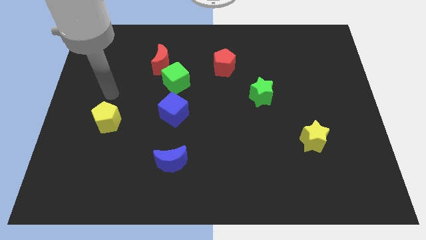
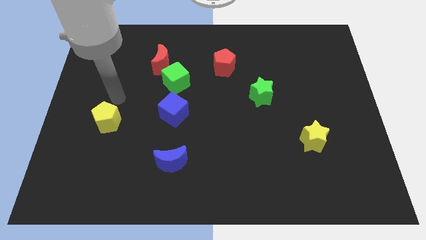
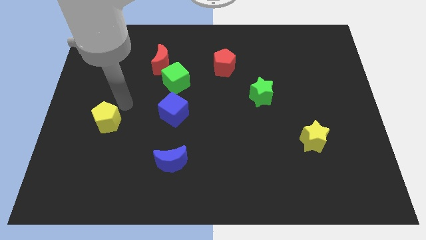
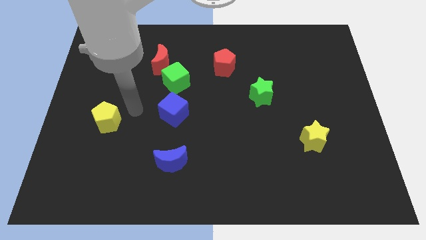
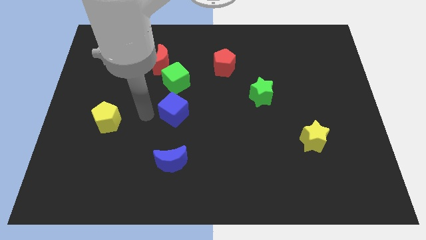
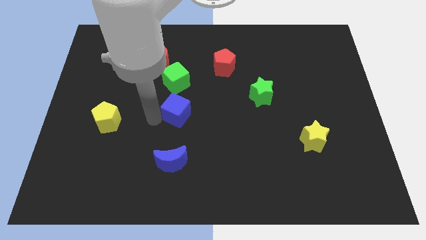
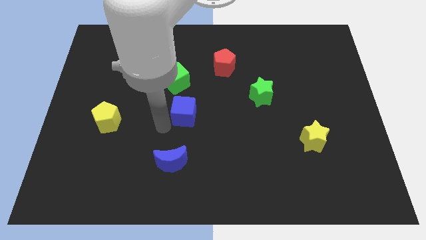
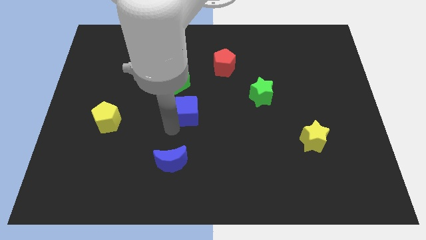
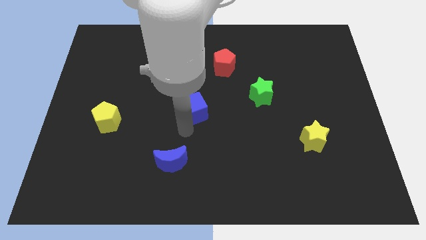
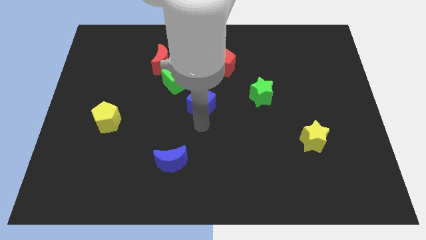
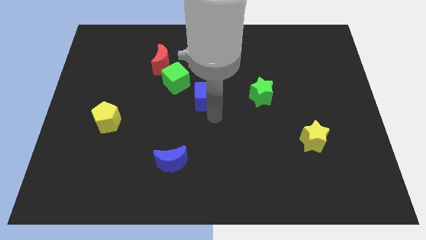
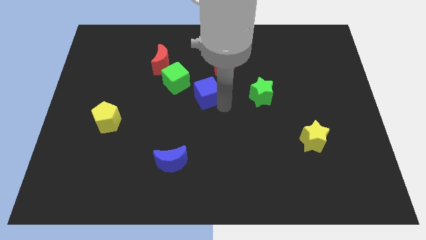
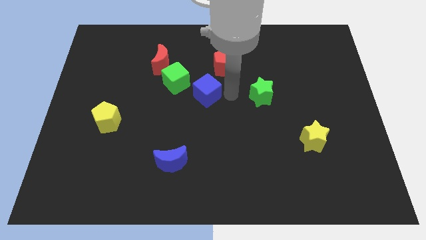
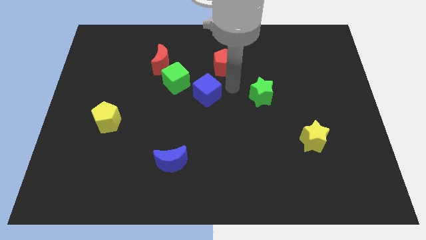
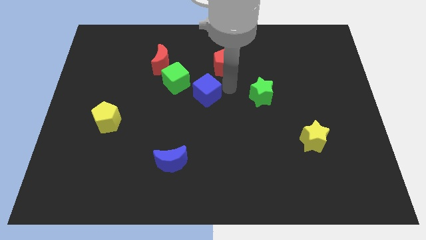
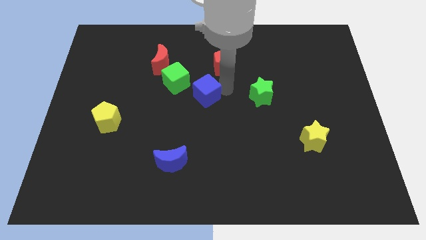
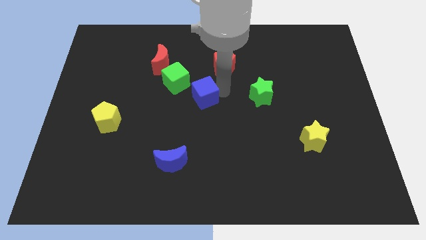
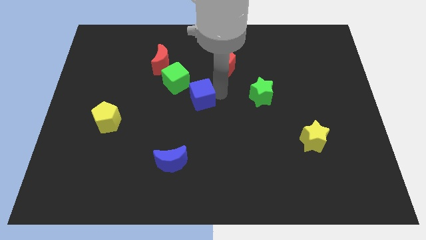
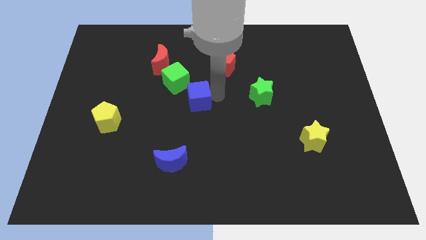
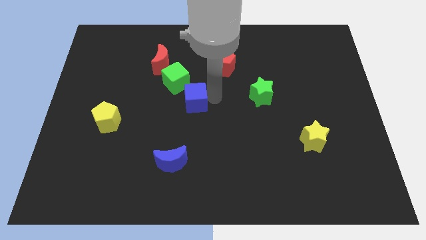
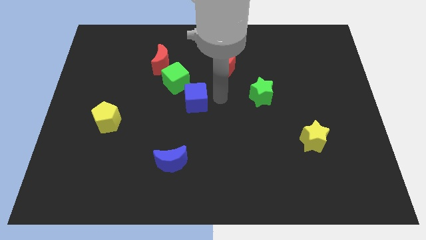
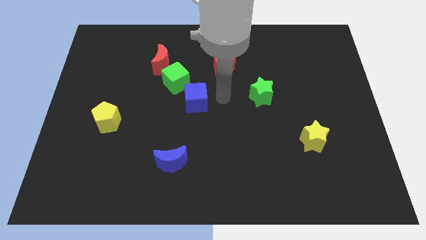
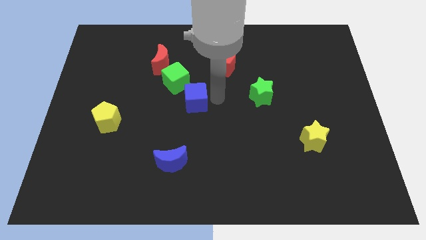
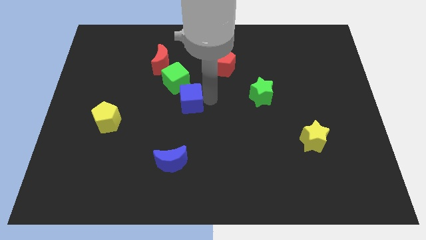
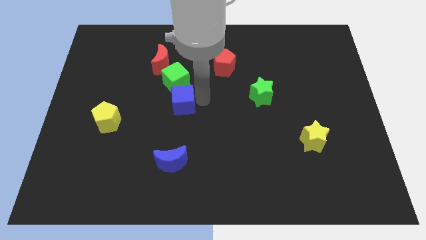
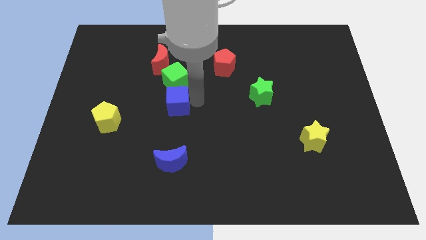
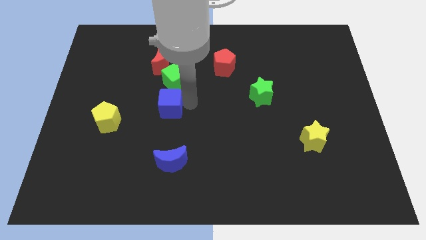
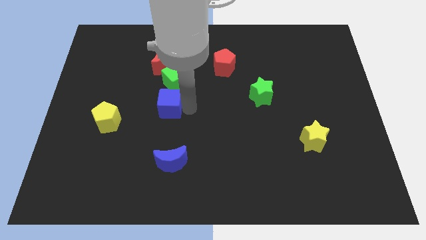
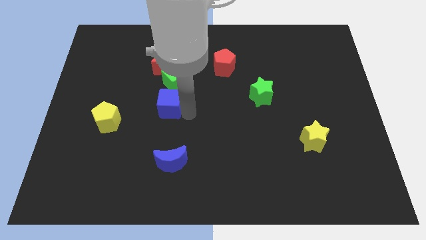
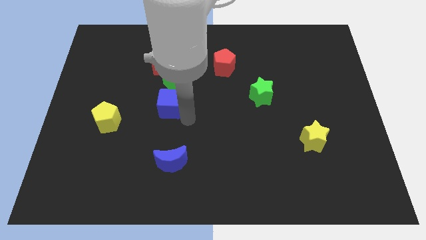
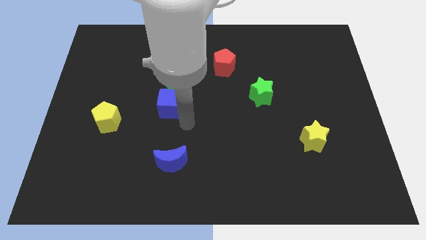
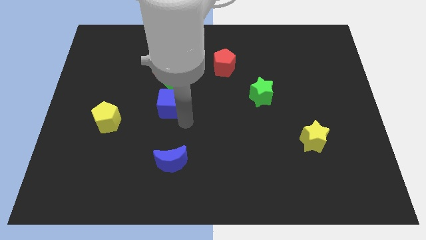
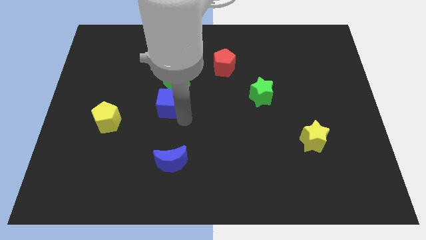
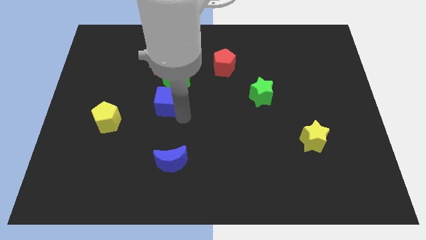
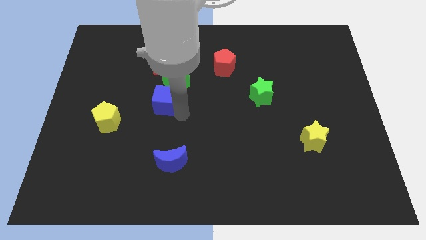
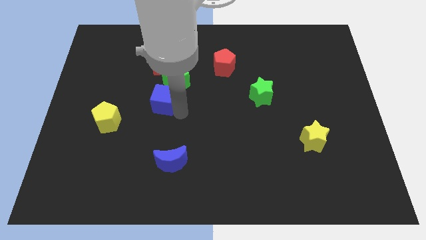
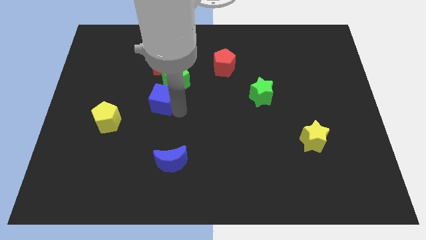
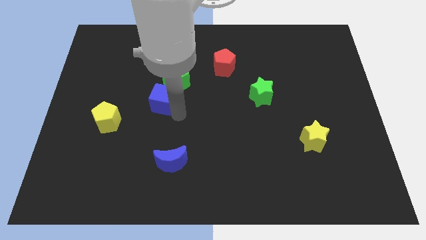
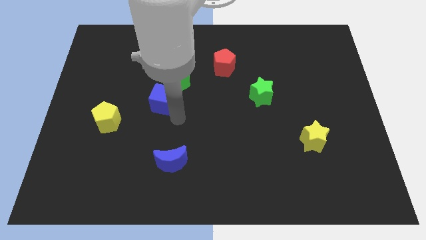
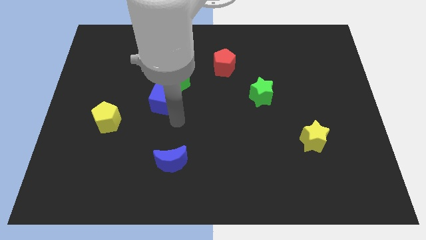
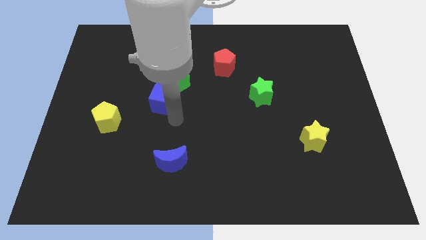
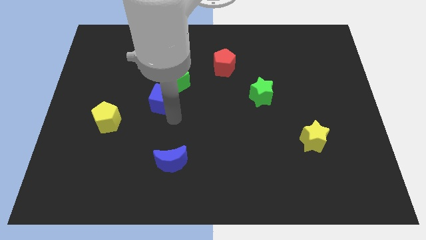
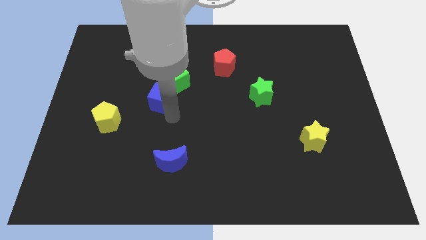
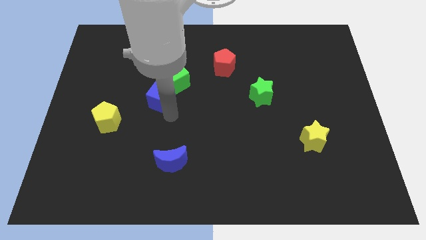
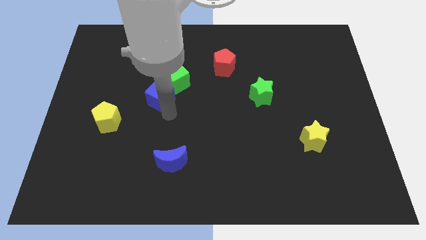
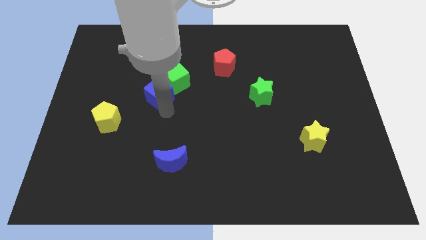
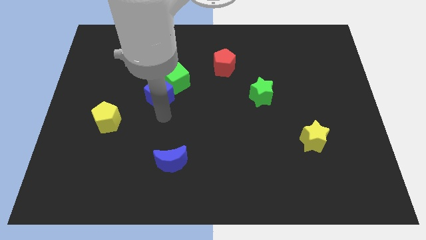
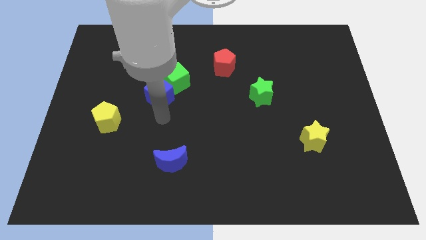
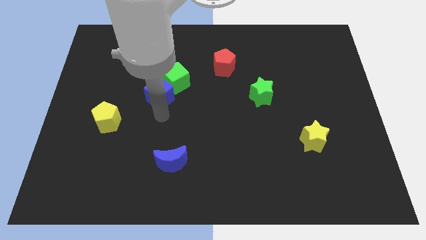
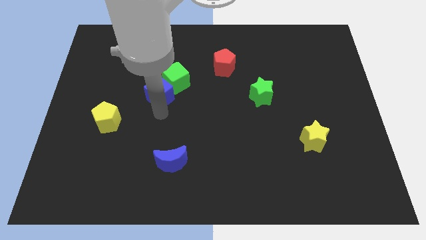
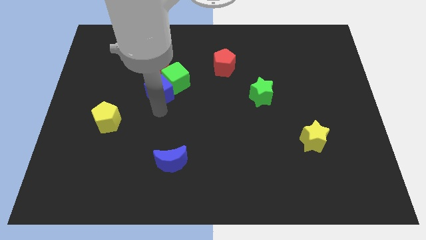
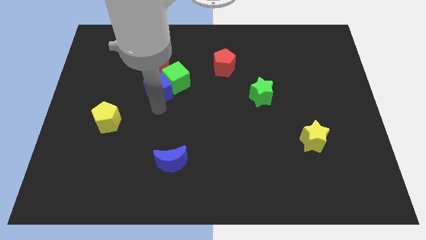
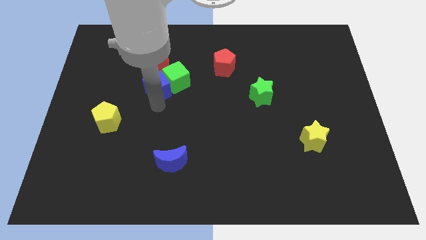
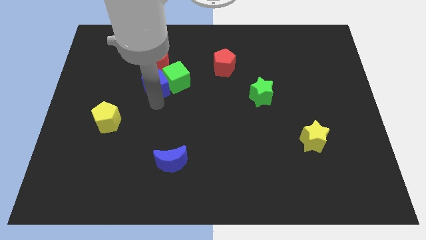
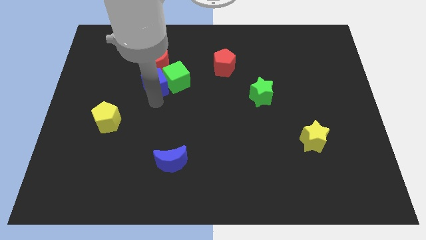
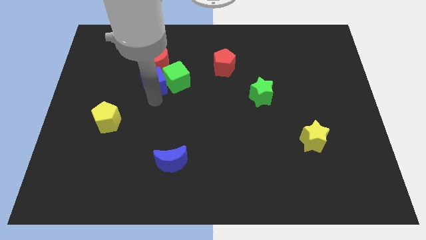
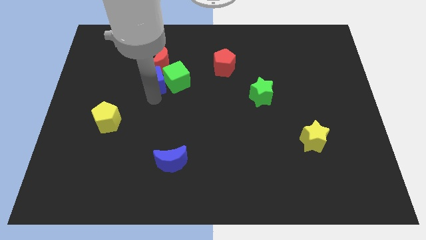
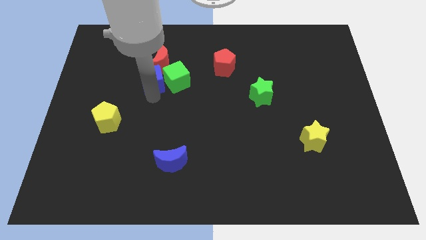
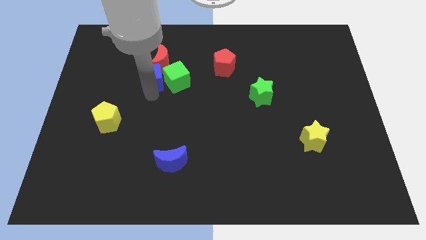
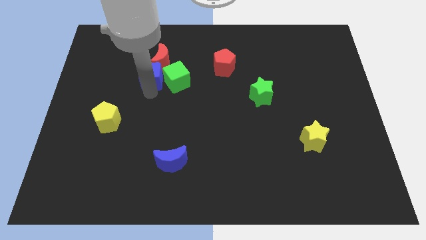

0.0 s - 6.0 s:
move the blue cube towards the red moon
